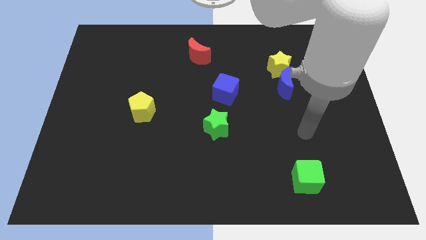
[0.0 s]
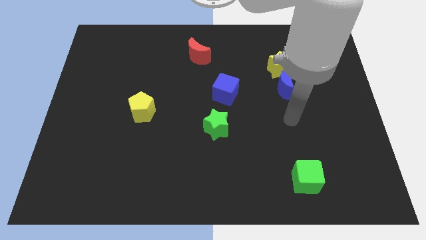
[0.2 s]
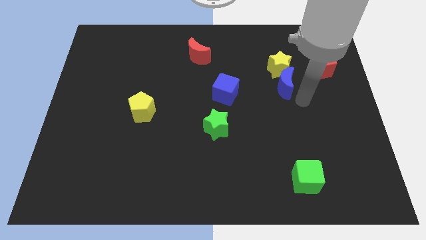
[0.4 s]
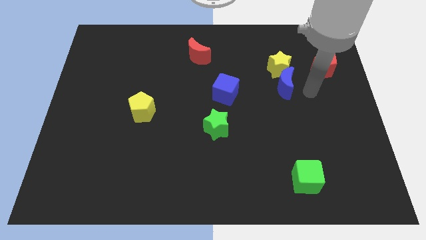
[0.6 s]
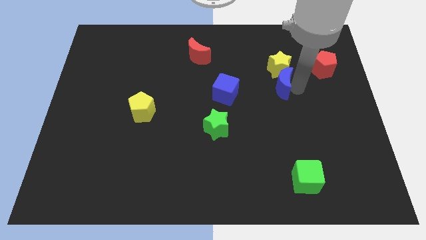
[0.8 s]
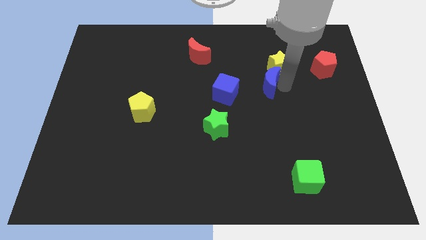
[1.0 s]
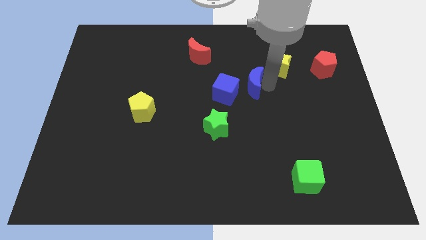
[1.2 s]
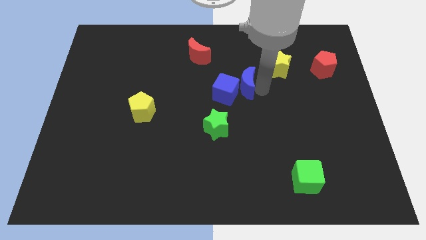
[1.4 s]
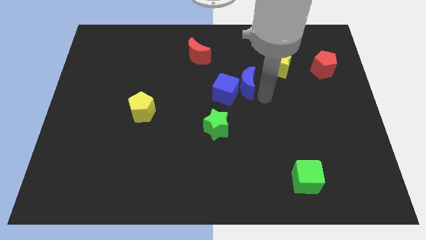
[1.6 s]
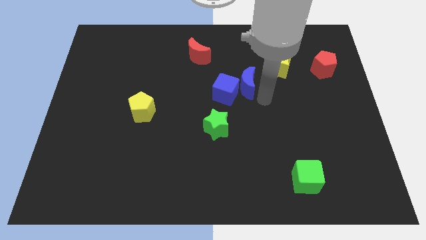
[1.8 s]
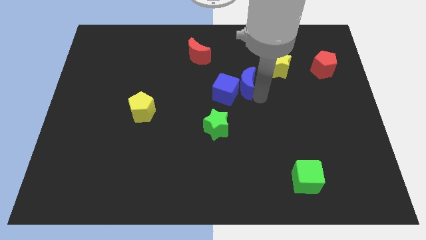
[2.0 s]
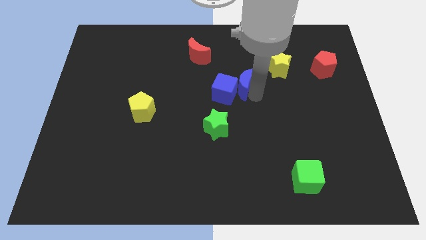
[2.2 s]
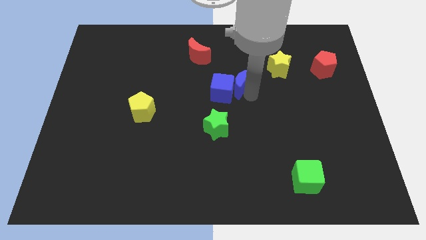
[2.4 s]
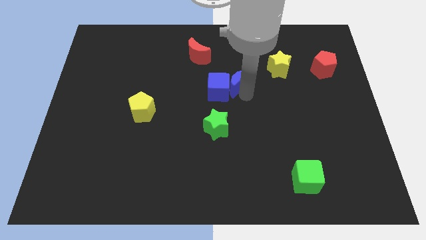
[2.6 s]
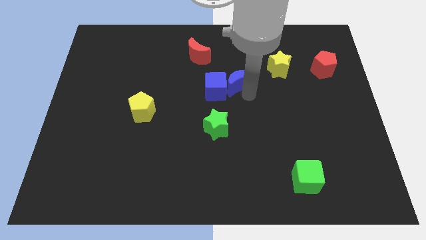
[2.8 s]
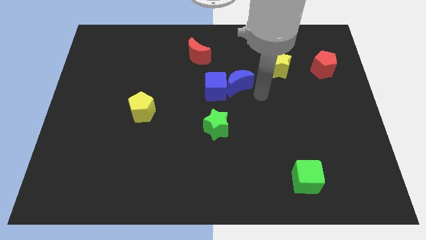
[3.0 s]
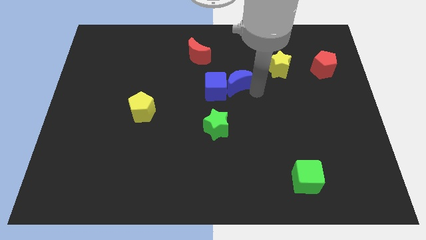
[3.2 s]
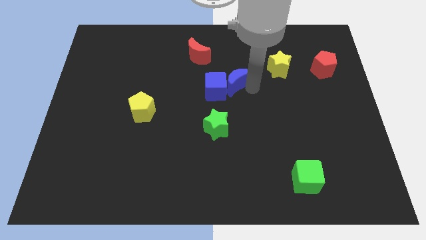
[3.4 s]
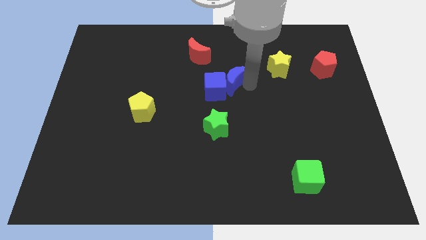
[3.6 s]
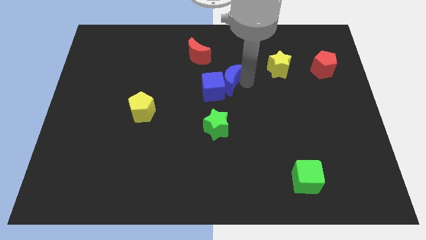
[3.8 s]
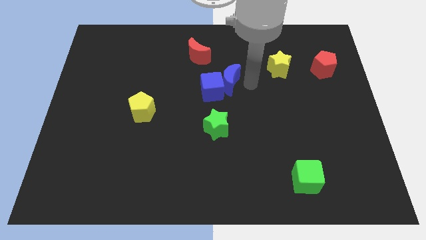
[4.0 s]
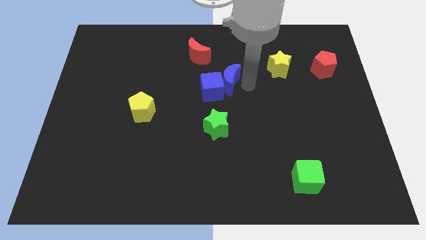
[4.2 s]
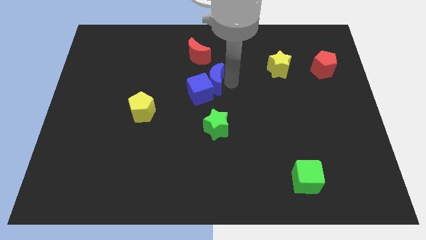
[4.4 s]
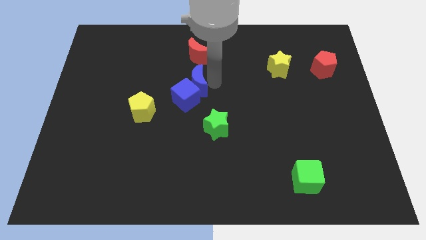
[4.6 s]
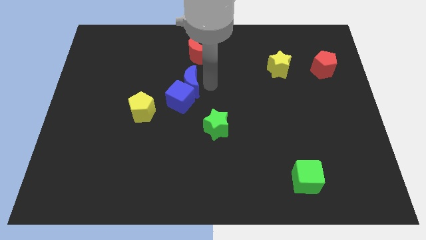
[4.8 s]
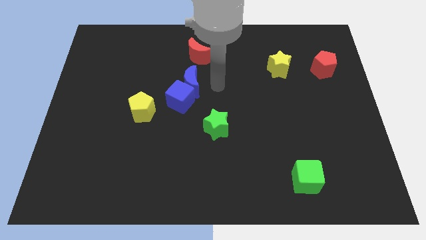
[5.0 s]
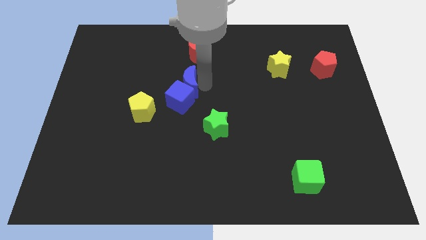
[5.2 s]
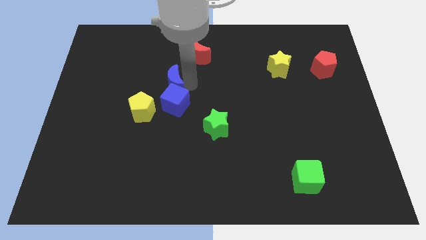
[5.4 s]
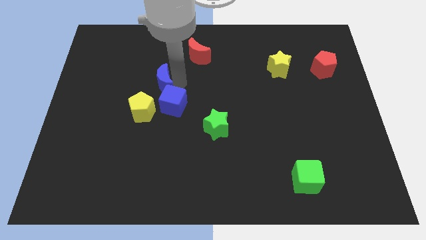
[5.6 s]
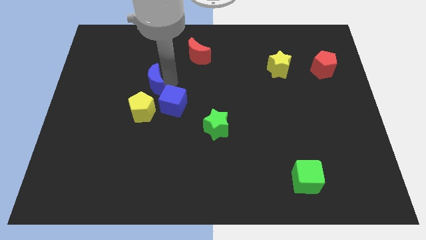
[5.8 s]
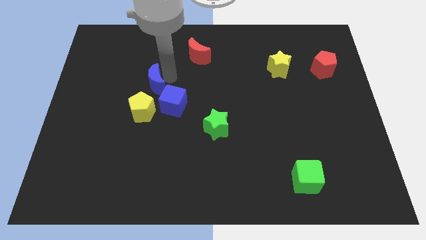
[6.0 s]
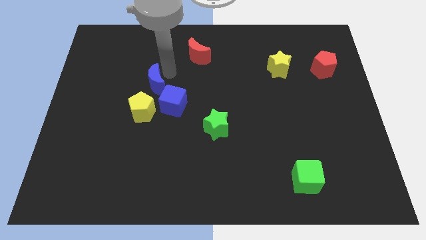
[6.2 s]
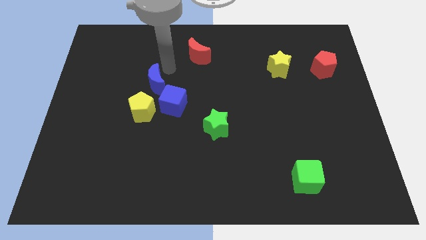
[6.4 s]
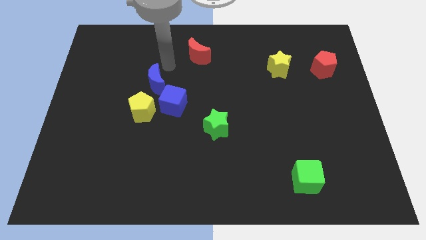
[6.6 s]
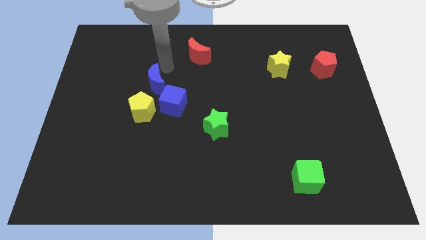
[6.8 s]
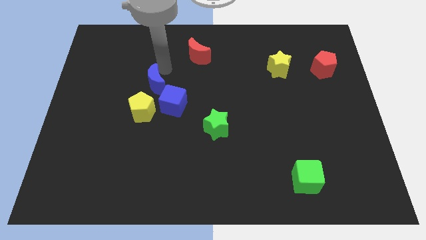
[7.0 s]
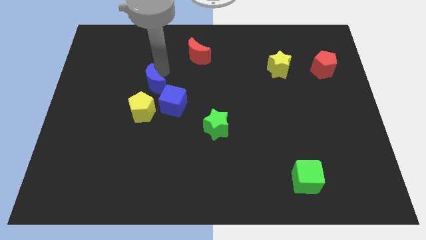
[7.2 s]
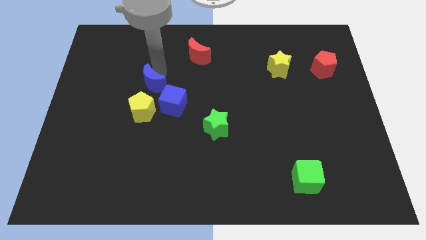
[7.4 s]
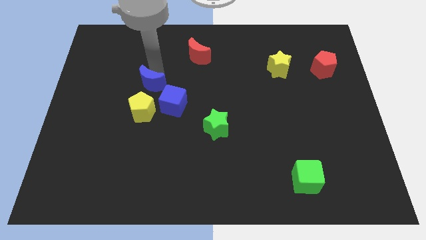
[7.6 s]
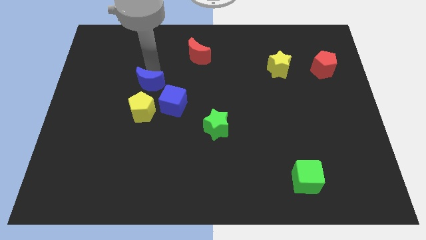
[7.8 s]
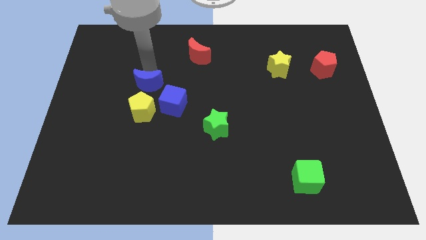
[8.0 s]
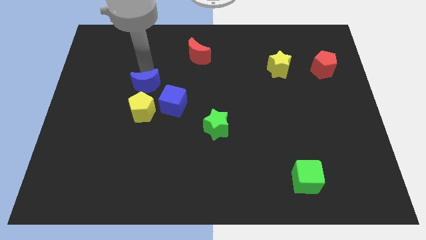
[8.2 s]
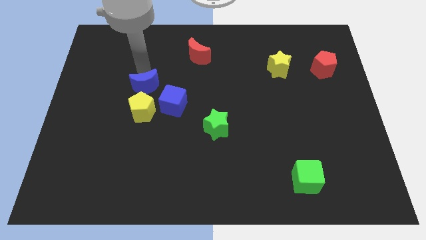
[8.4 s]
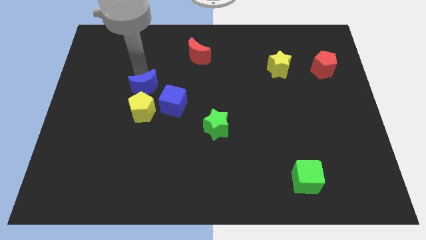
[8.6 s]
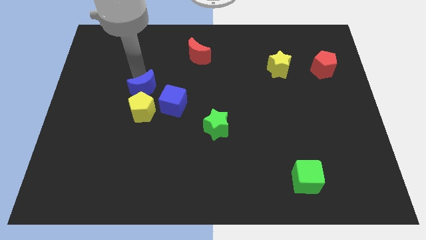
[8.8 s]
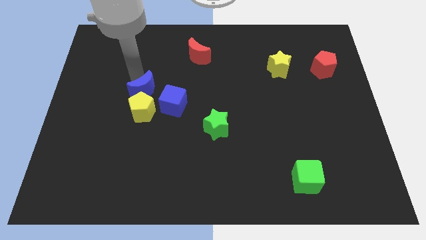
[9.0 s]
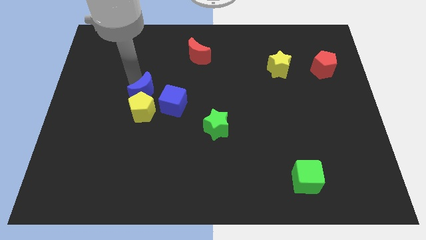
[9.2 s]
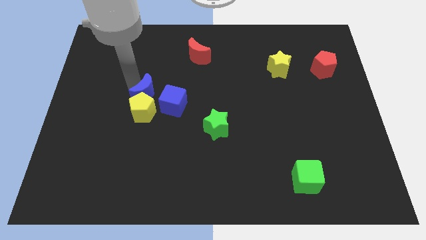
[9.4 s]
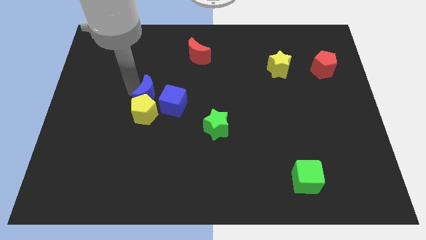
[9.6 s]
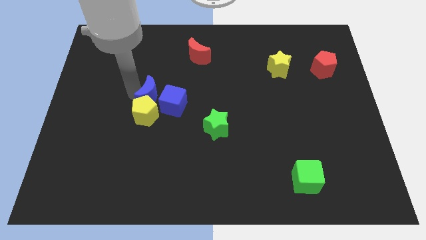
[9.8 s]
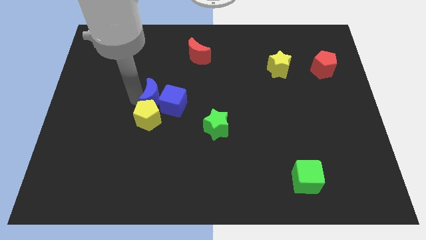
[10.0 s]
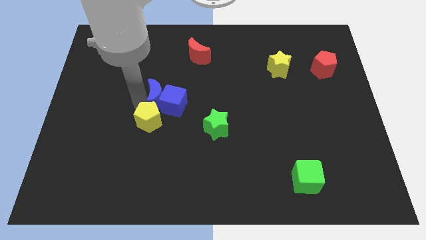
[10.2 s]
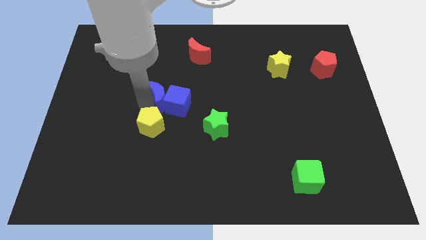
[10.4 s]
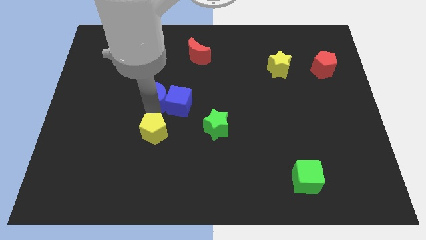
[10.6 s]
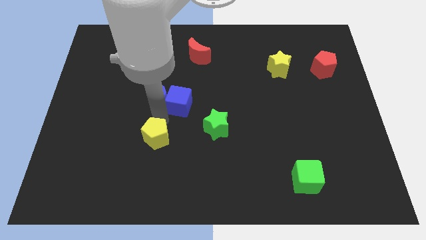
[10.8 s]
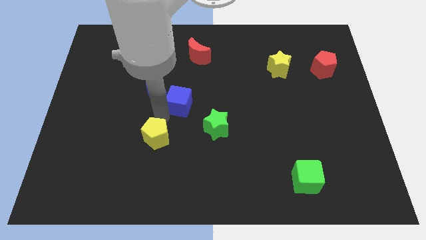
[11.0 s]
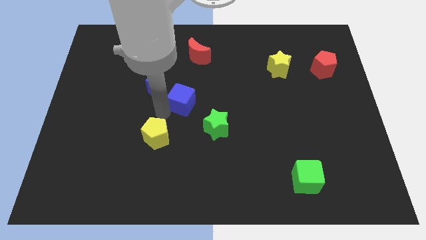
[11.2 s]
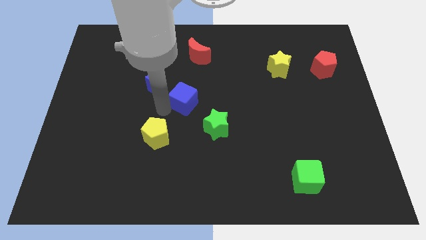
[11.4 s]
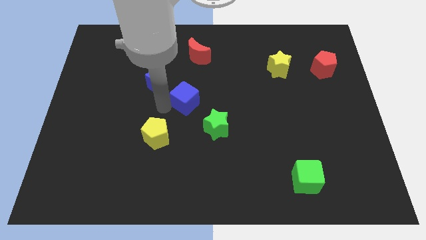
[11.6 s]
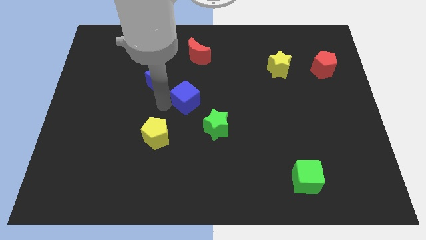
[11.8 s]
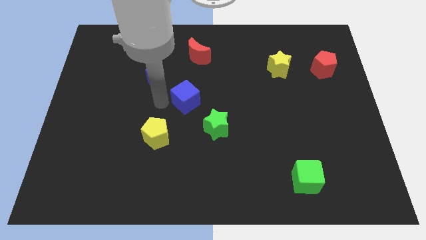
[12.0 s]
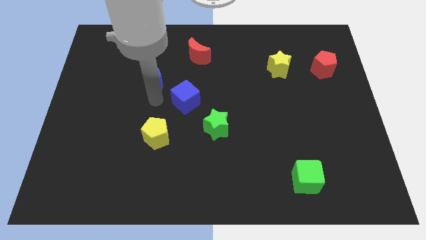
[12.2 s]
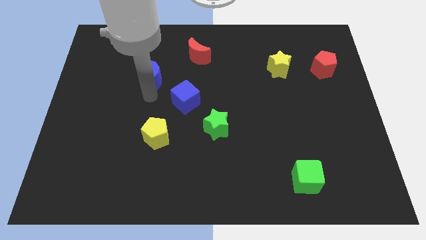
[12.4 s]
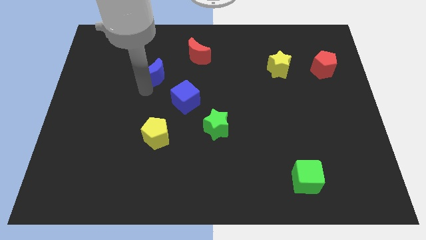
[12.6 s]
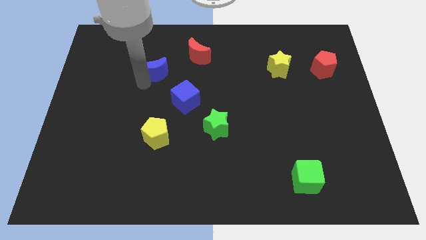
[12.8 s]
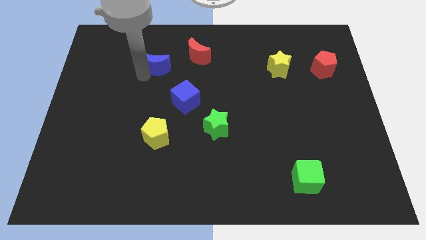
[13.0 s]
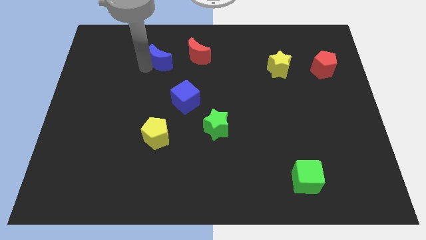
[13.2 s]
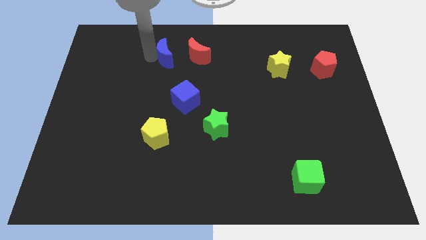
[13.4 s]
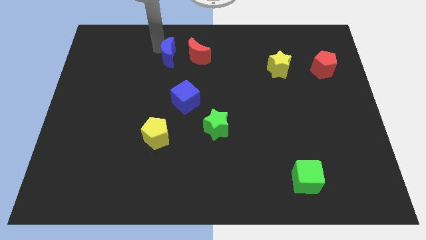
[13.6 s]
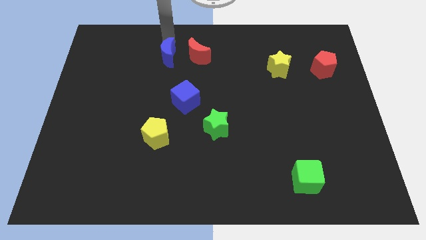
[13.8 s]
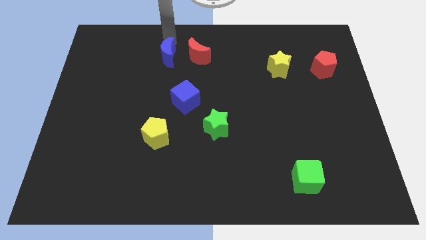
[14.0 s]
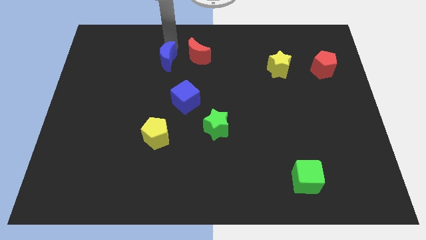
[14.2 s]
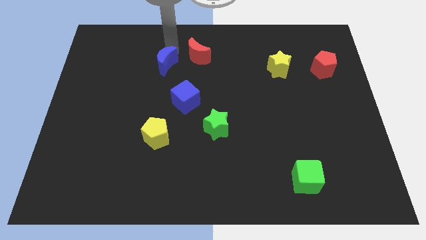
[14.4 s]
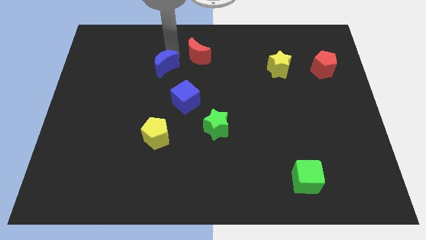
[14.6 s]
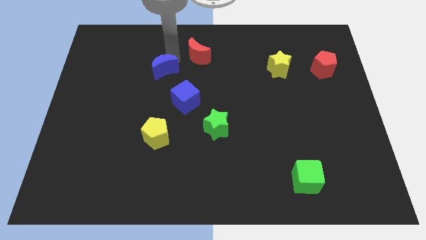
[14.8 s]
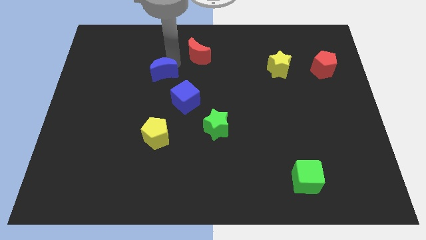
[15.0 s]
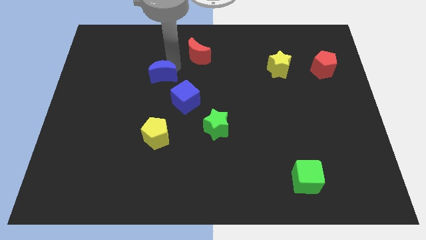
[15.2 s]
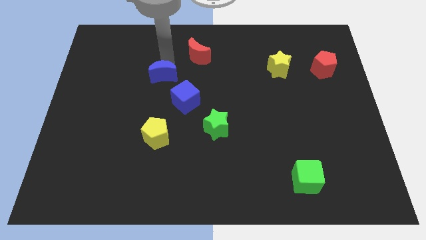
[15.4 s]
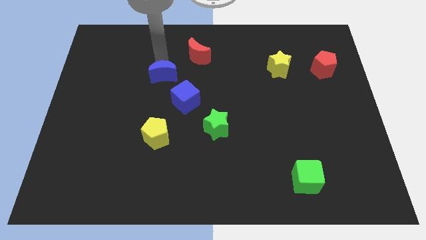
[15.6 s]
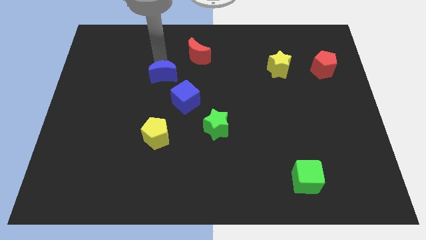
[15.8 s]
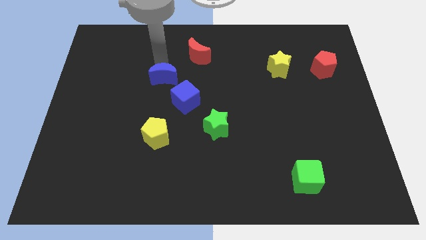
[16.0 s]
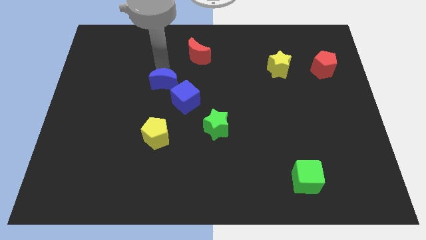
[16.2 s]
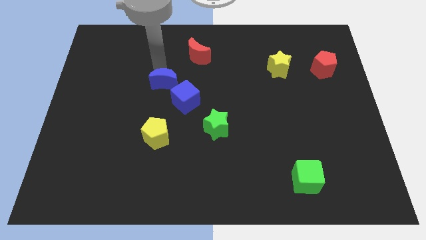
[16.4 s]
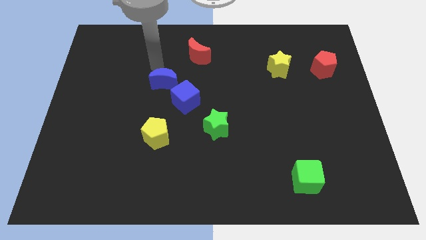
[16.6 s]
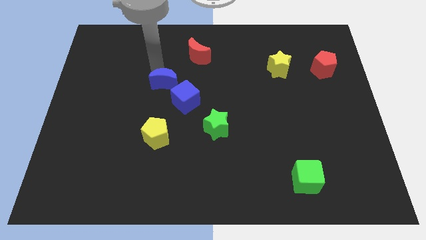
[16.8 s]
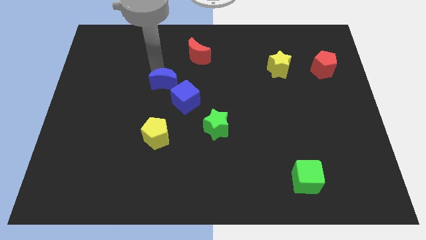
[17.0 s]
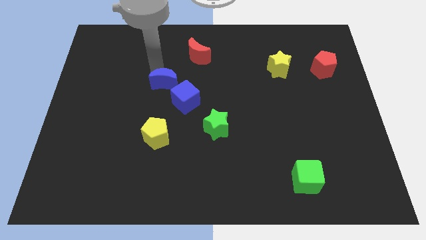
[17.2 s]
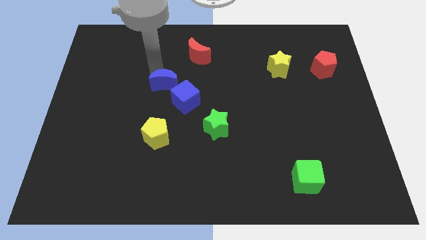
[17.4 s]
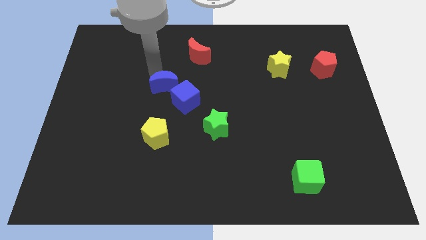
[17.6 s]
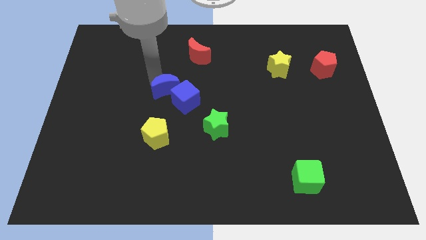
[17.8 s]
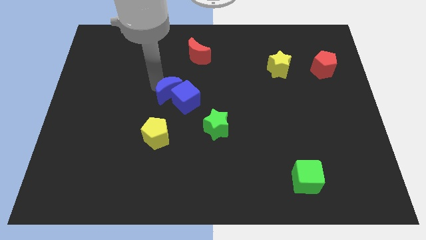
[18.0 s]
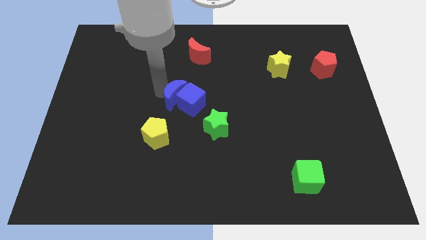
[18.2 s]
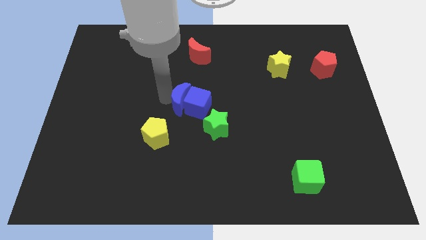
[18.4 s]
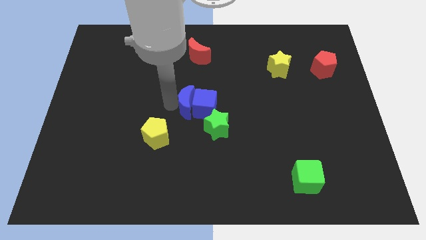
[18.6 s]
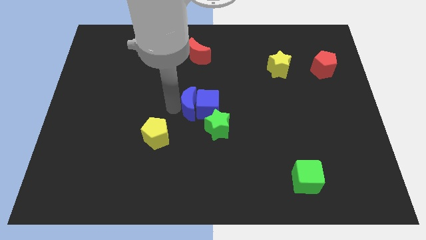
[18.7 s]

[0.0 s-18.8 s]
push the blue moon to the top left side of the blue cube
